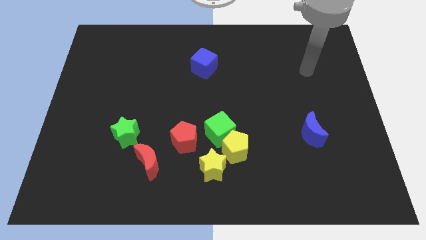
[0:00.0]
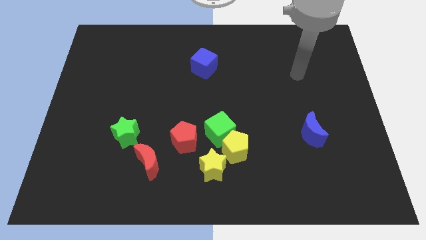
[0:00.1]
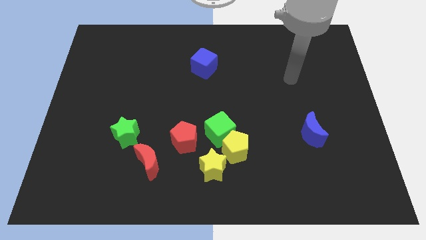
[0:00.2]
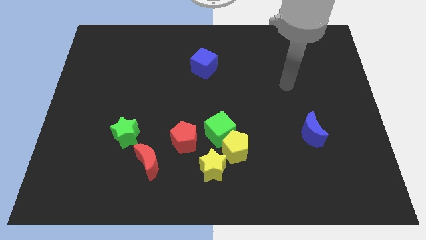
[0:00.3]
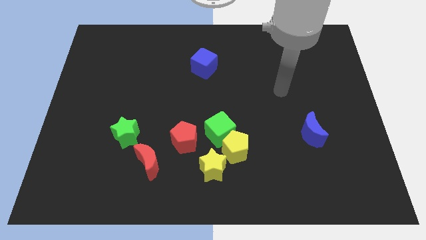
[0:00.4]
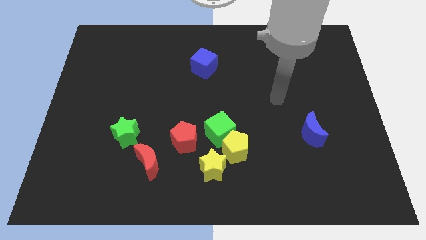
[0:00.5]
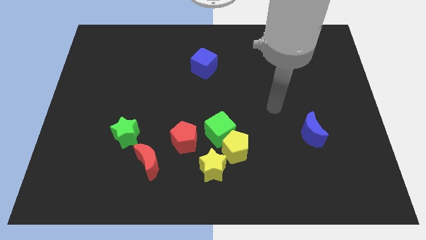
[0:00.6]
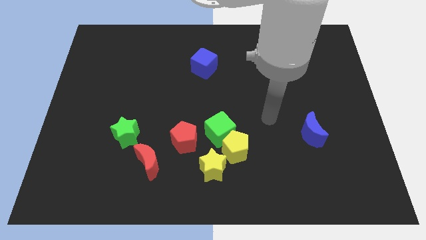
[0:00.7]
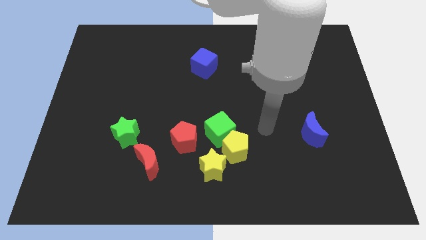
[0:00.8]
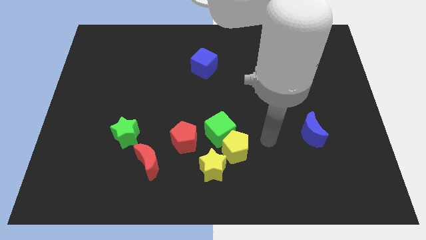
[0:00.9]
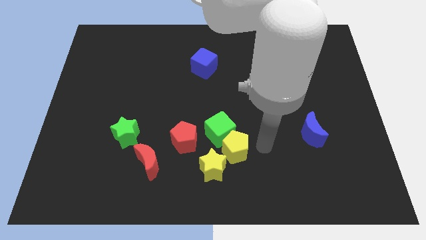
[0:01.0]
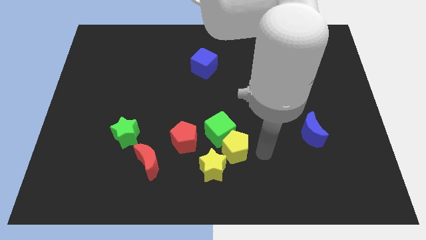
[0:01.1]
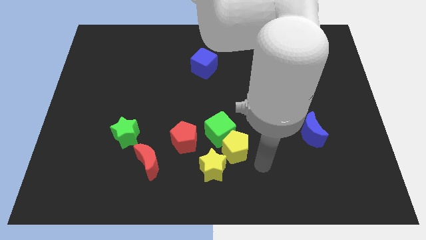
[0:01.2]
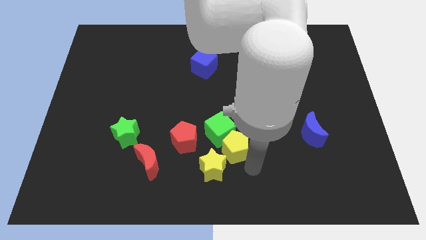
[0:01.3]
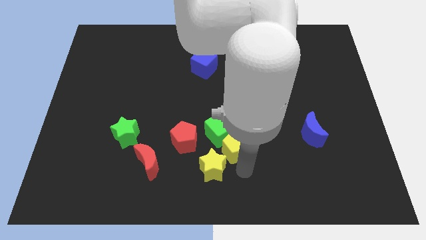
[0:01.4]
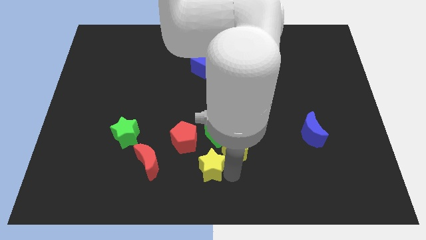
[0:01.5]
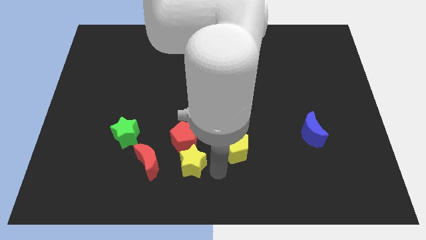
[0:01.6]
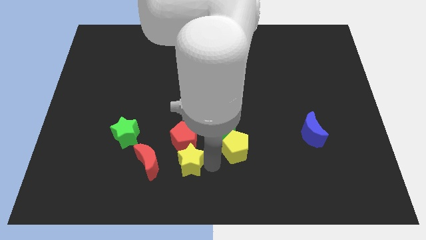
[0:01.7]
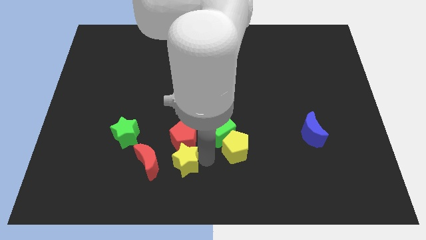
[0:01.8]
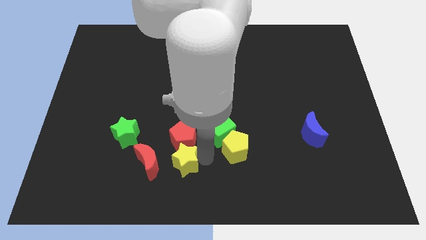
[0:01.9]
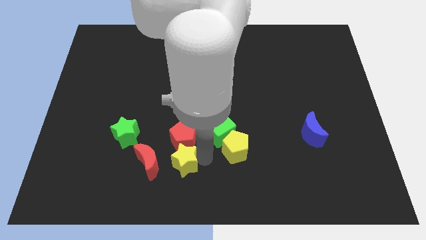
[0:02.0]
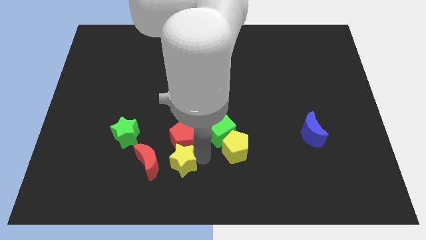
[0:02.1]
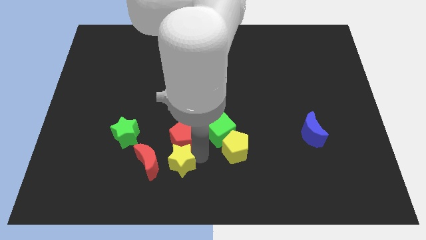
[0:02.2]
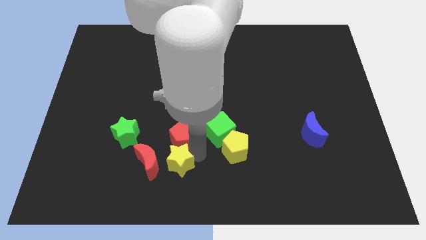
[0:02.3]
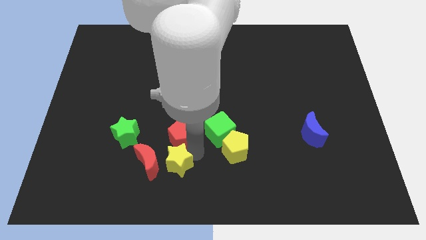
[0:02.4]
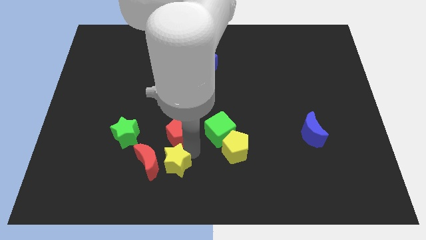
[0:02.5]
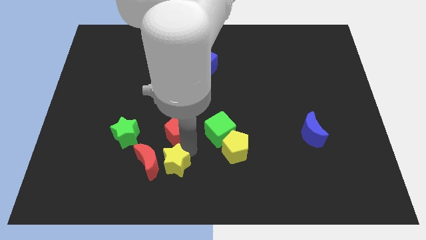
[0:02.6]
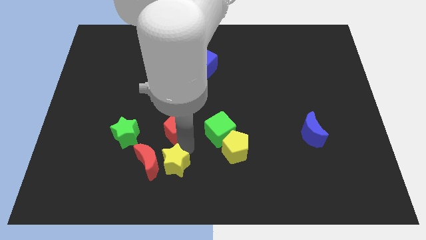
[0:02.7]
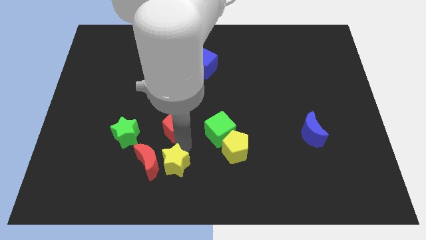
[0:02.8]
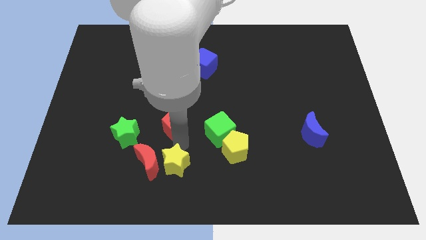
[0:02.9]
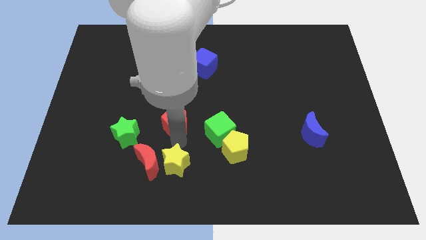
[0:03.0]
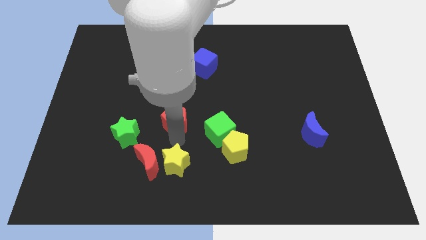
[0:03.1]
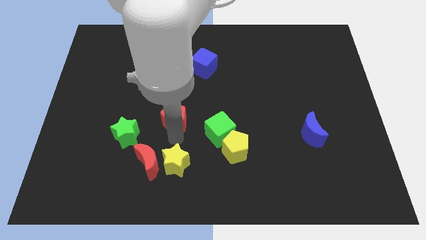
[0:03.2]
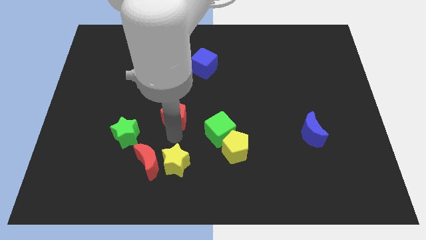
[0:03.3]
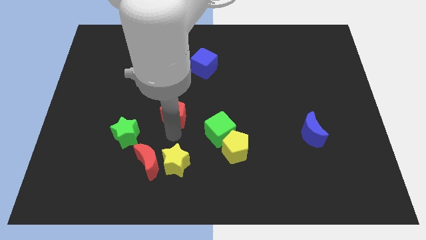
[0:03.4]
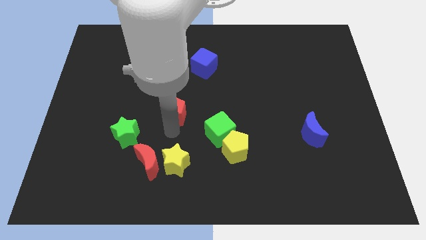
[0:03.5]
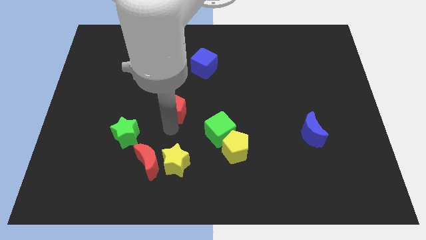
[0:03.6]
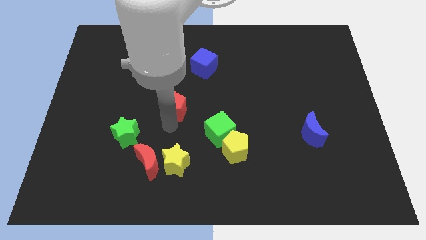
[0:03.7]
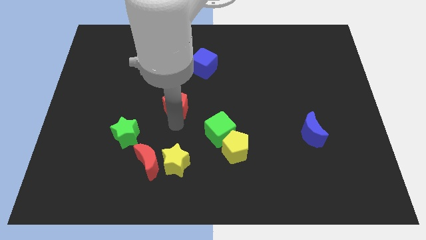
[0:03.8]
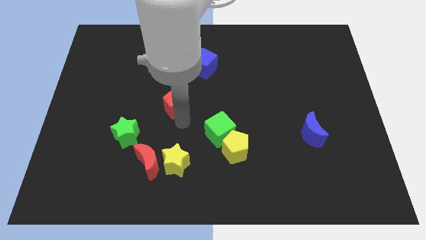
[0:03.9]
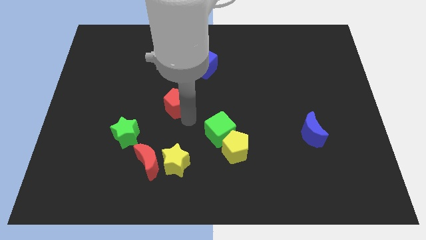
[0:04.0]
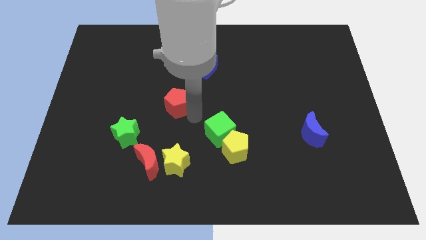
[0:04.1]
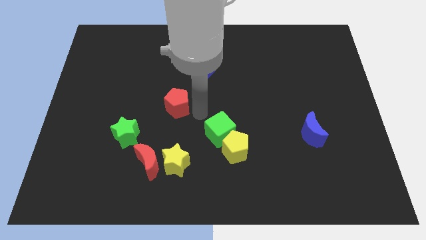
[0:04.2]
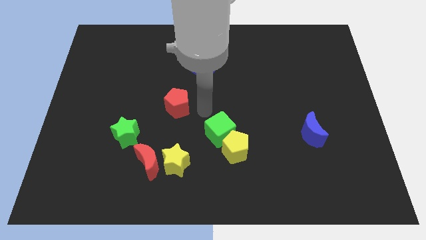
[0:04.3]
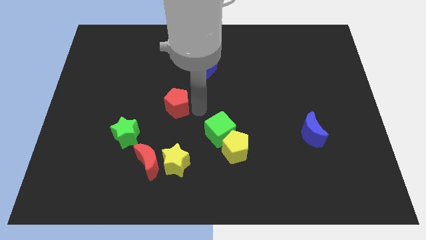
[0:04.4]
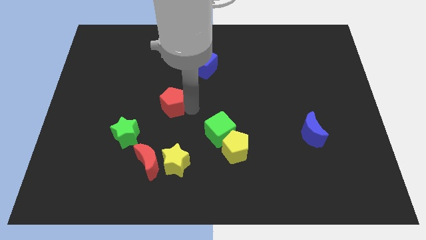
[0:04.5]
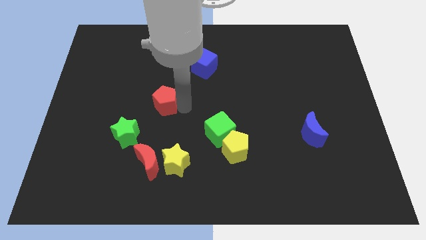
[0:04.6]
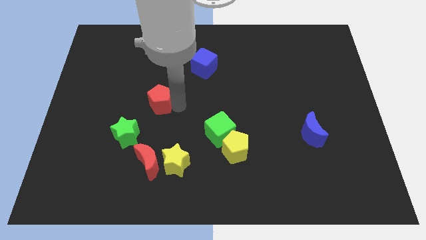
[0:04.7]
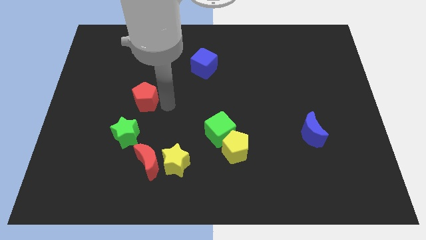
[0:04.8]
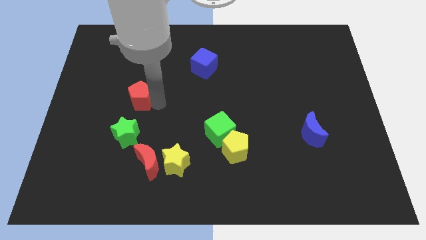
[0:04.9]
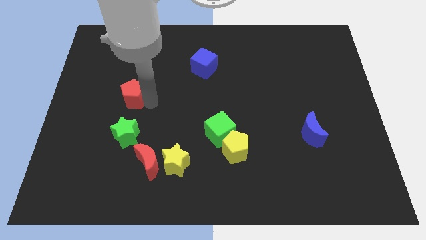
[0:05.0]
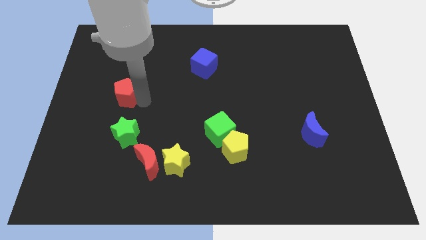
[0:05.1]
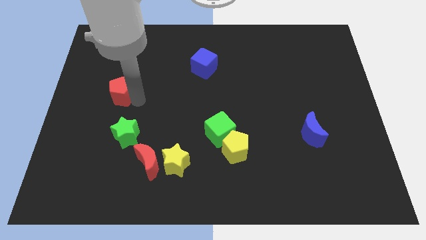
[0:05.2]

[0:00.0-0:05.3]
slide the red pentagon upwards and then to the left

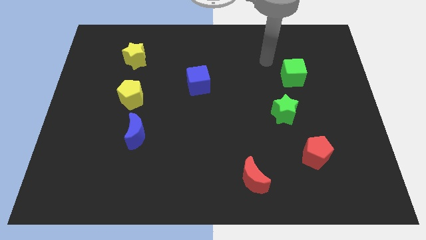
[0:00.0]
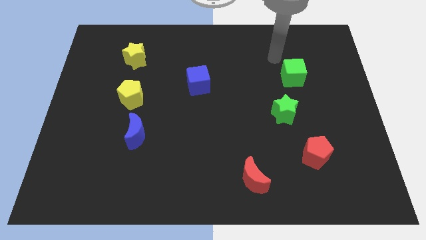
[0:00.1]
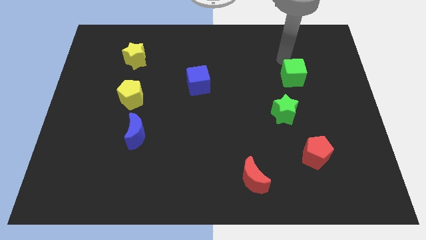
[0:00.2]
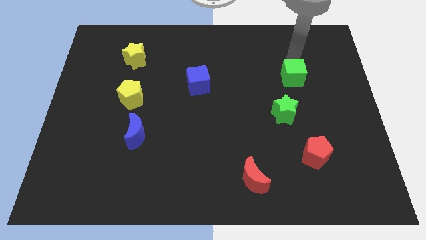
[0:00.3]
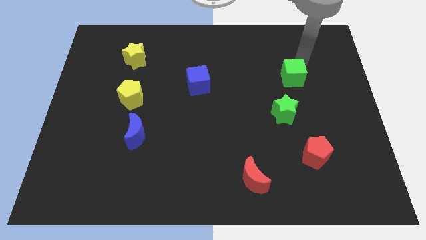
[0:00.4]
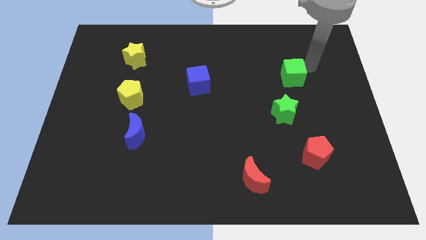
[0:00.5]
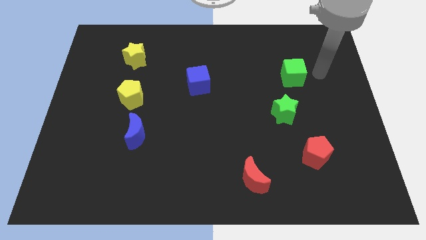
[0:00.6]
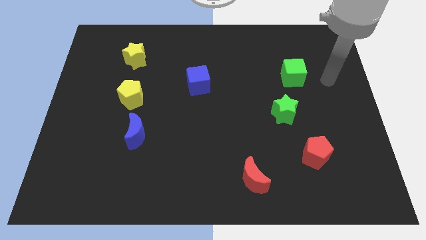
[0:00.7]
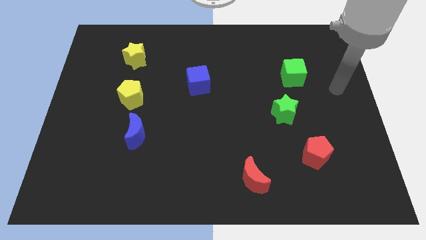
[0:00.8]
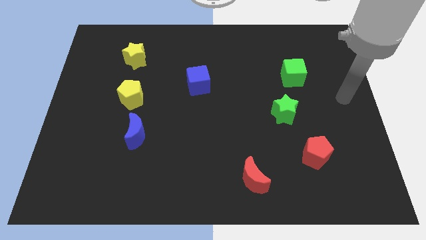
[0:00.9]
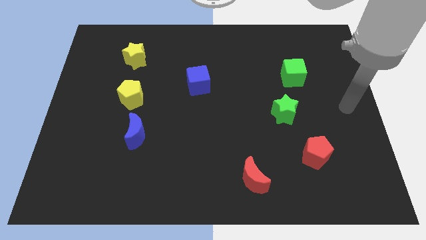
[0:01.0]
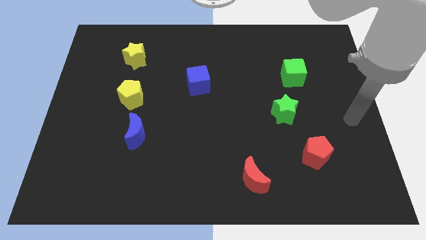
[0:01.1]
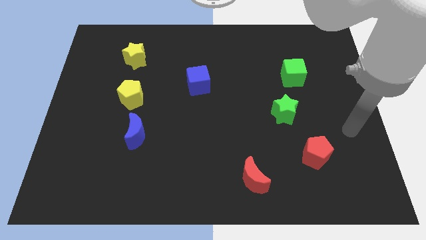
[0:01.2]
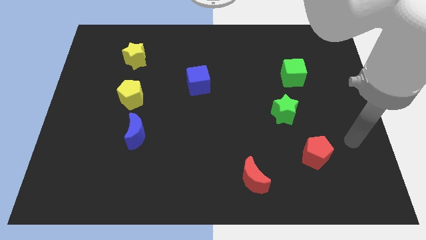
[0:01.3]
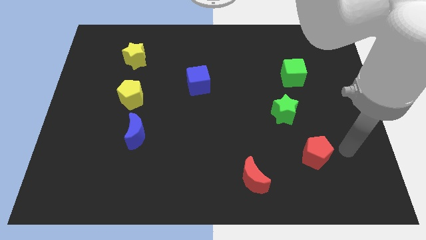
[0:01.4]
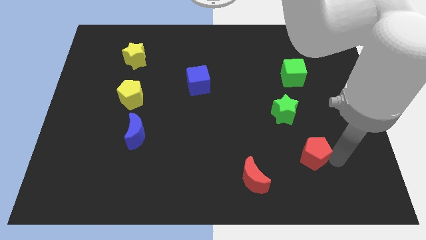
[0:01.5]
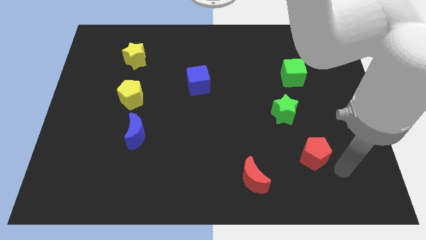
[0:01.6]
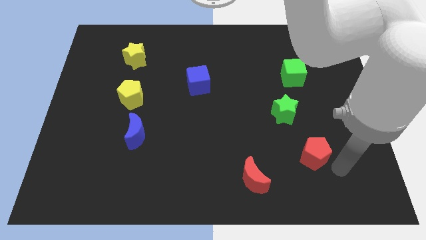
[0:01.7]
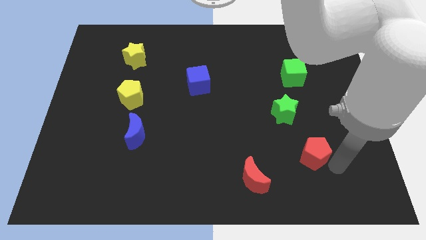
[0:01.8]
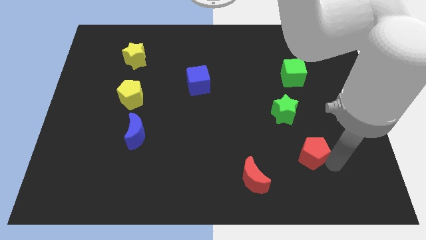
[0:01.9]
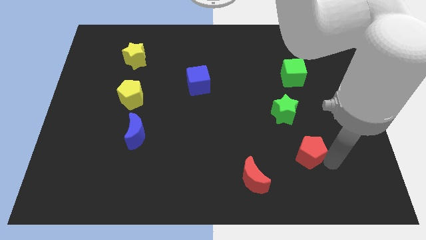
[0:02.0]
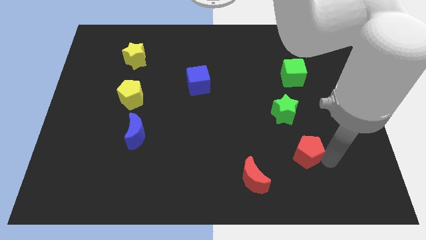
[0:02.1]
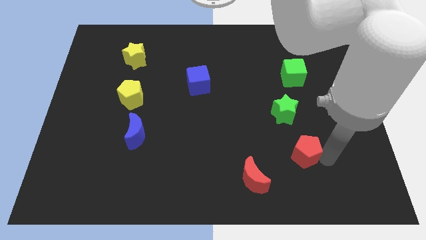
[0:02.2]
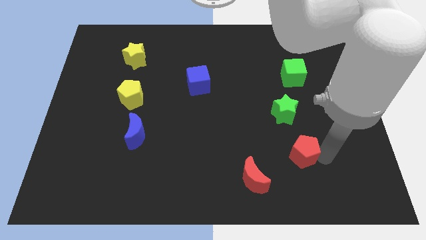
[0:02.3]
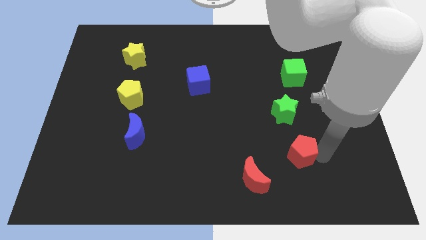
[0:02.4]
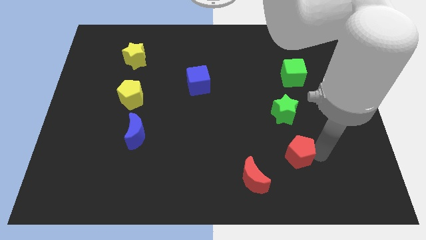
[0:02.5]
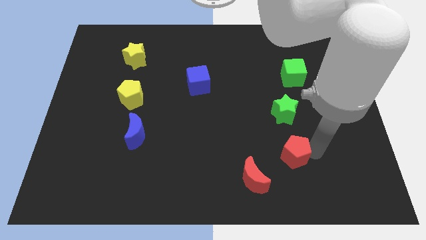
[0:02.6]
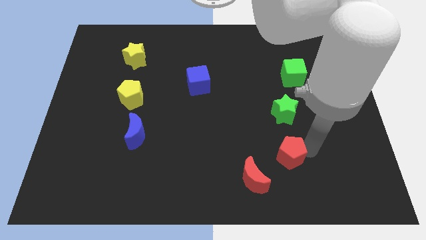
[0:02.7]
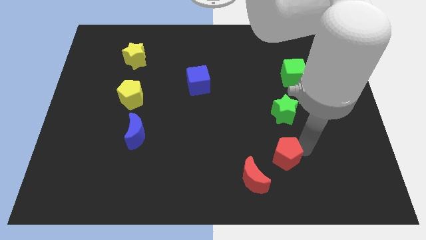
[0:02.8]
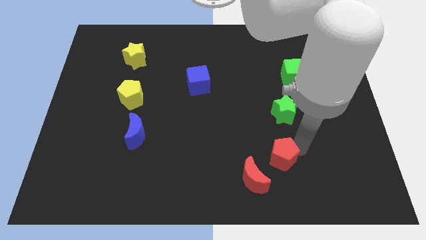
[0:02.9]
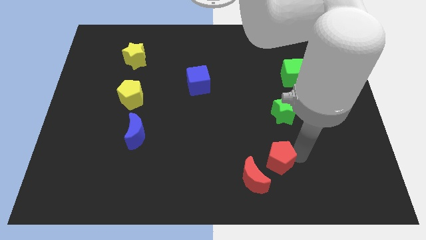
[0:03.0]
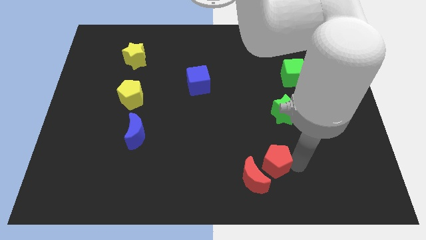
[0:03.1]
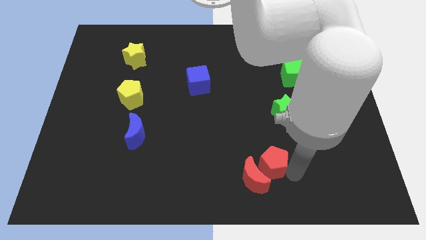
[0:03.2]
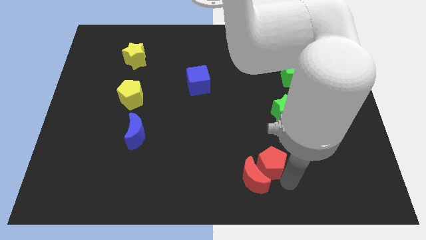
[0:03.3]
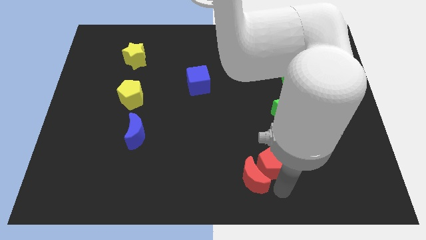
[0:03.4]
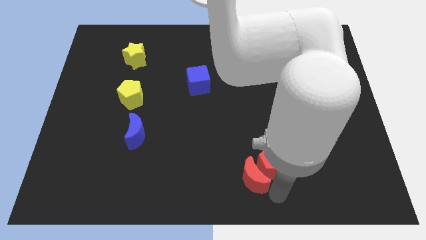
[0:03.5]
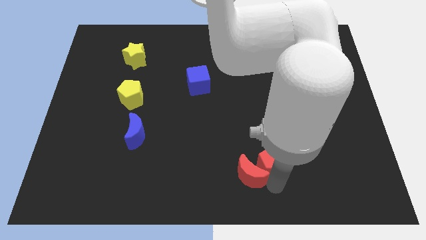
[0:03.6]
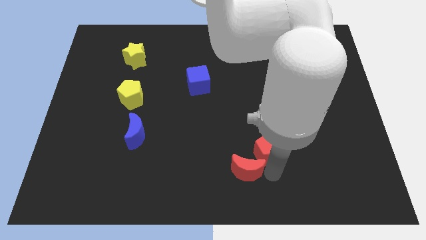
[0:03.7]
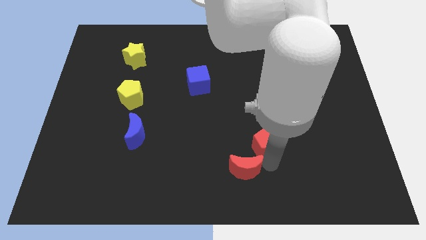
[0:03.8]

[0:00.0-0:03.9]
move the red pentagon a bit up and left
